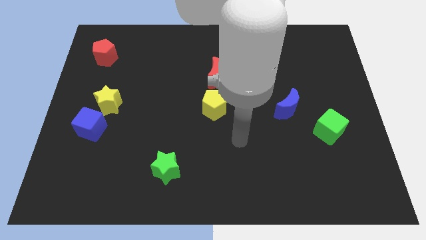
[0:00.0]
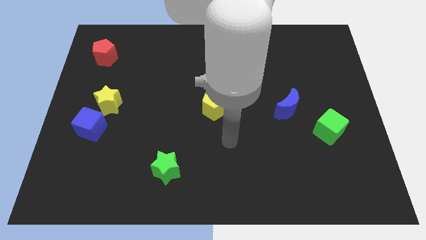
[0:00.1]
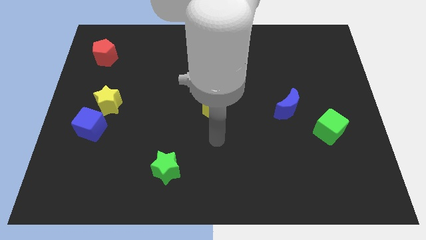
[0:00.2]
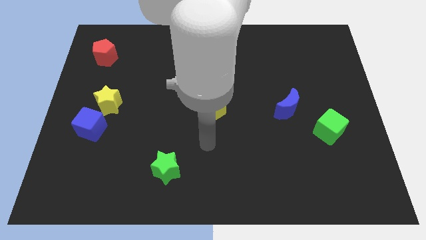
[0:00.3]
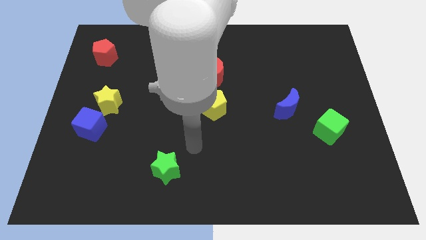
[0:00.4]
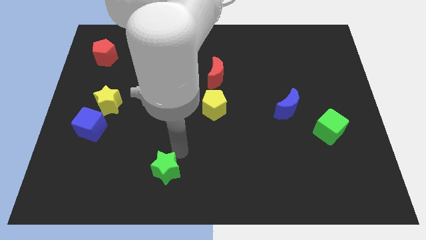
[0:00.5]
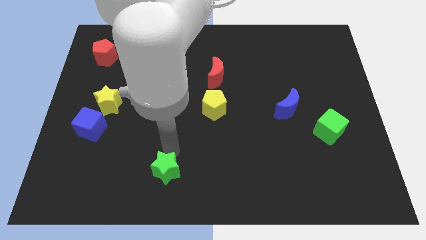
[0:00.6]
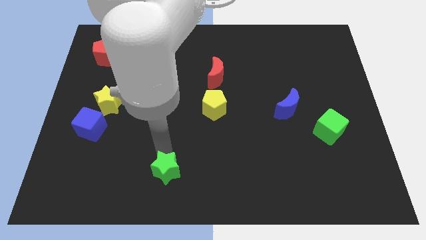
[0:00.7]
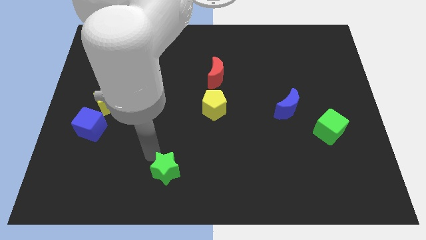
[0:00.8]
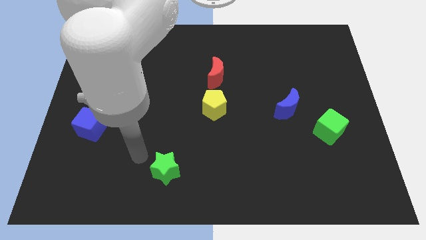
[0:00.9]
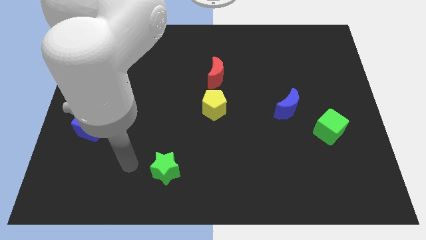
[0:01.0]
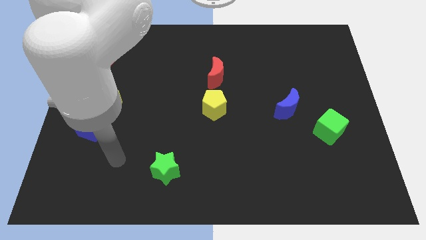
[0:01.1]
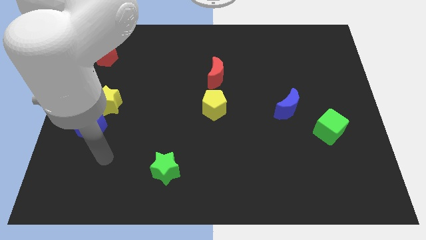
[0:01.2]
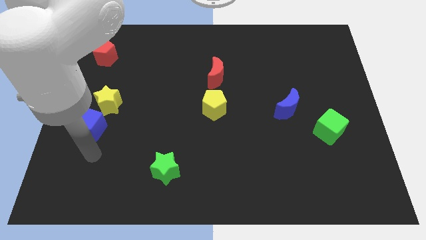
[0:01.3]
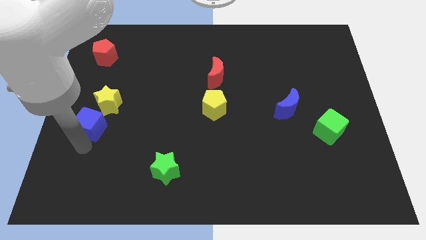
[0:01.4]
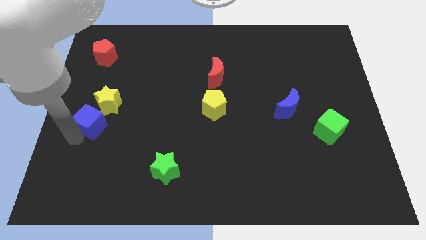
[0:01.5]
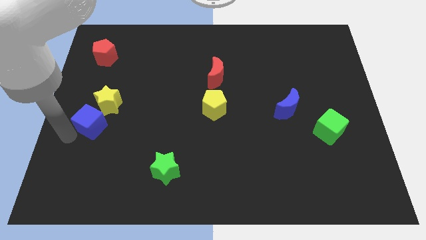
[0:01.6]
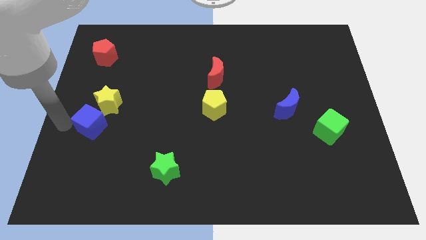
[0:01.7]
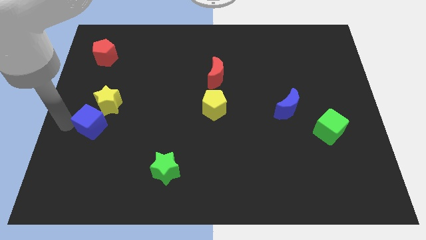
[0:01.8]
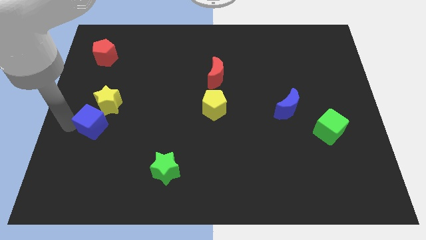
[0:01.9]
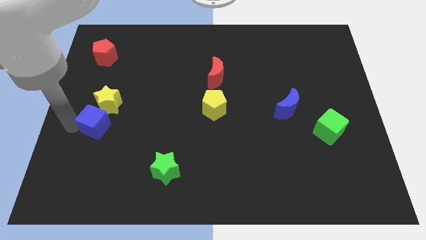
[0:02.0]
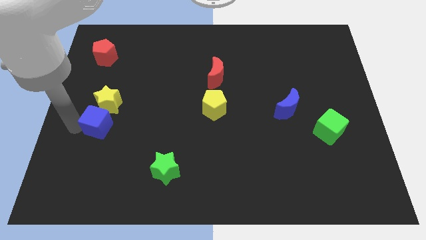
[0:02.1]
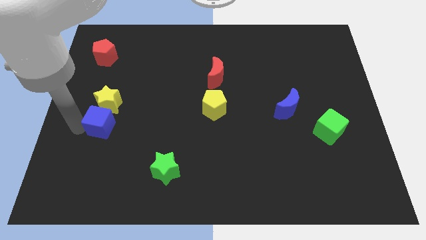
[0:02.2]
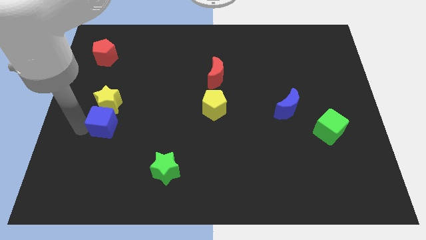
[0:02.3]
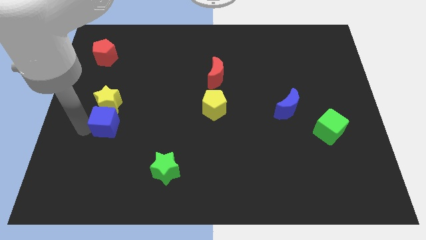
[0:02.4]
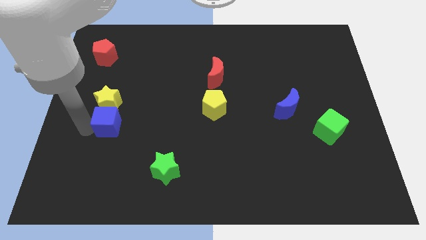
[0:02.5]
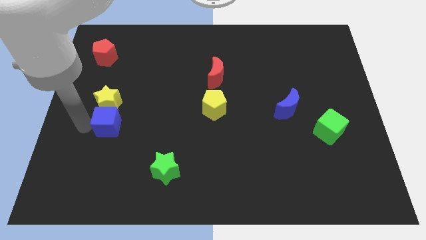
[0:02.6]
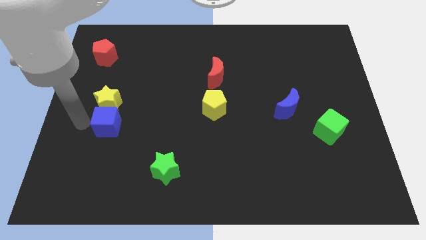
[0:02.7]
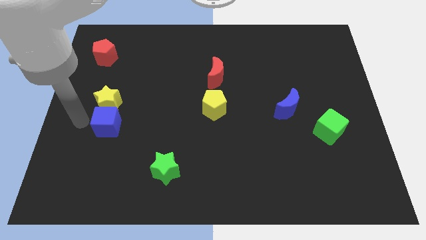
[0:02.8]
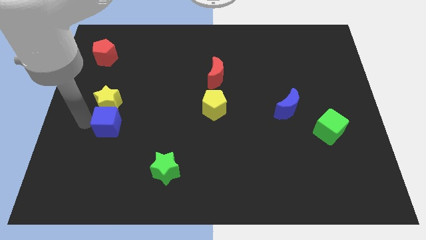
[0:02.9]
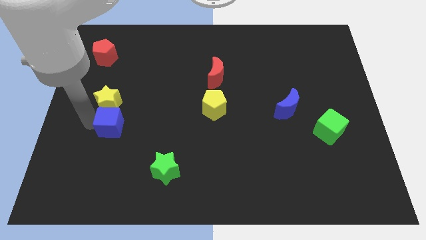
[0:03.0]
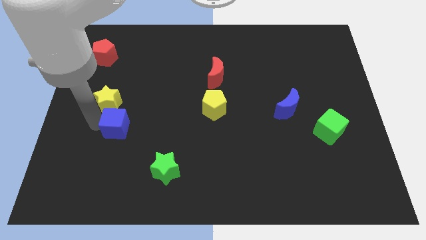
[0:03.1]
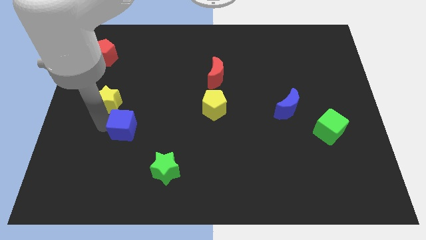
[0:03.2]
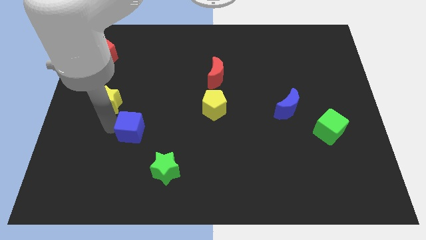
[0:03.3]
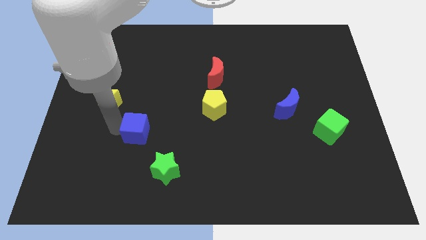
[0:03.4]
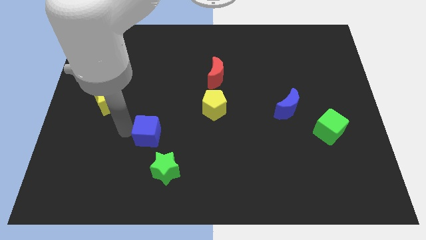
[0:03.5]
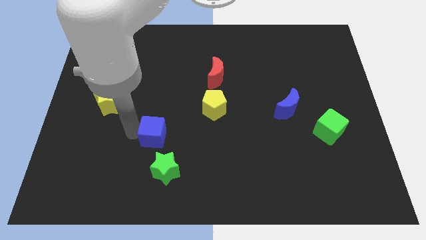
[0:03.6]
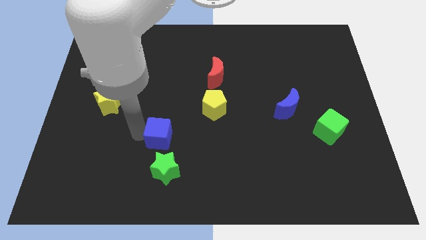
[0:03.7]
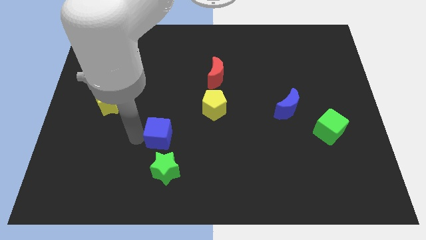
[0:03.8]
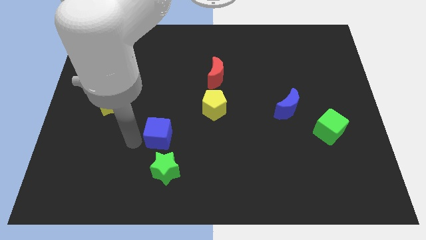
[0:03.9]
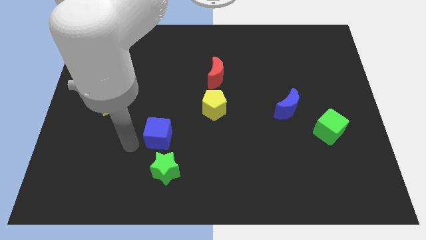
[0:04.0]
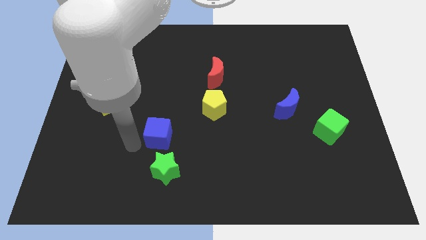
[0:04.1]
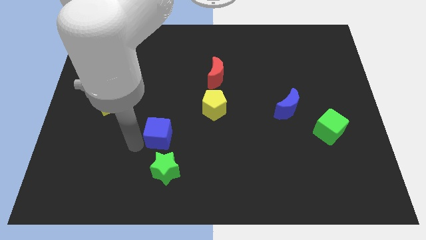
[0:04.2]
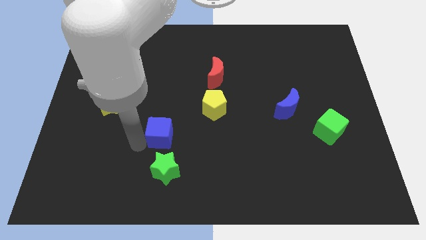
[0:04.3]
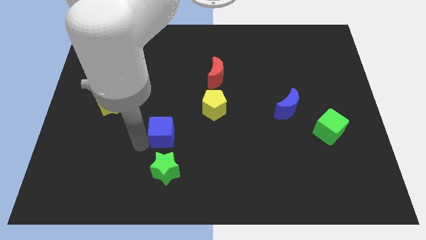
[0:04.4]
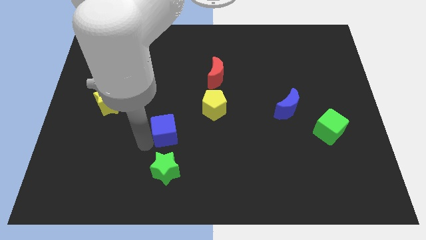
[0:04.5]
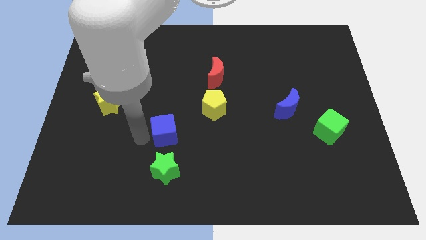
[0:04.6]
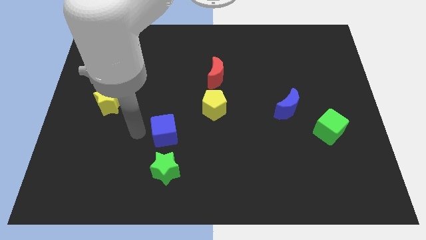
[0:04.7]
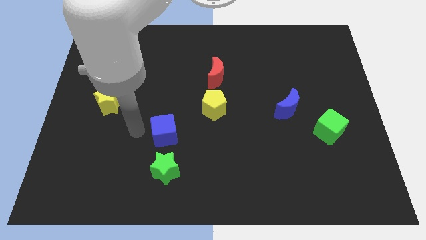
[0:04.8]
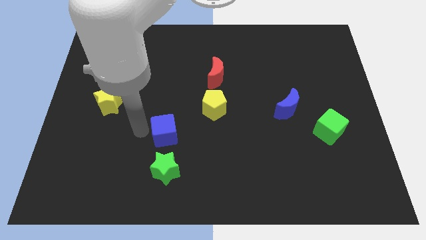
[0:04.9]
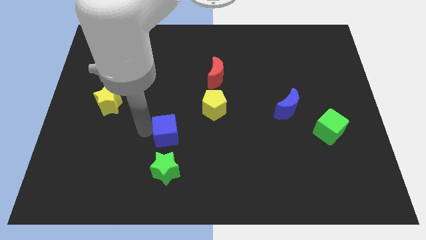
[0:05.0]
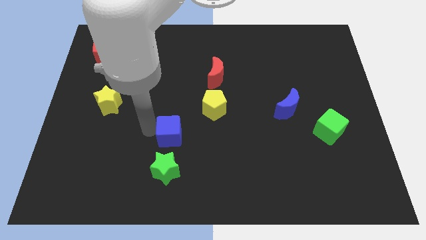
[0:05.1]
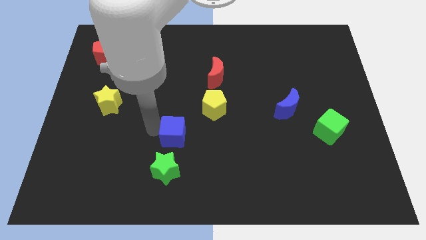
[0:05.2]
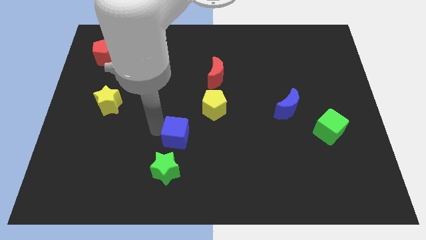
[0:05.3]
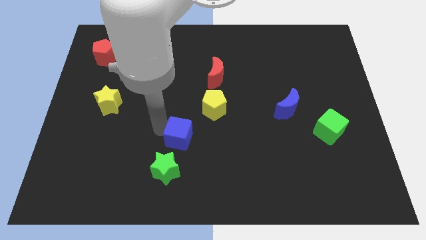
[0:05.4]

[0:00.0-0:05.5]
slide the blue cube right

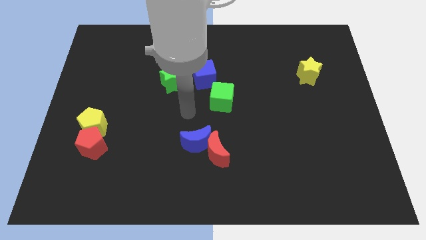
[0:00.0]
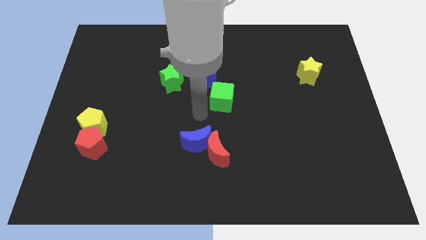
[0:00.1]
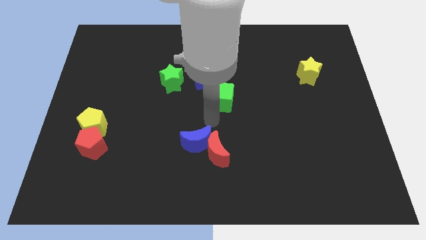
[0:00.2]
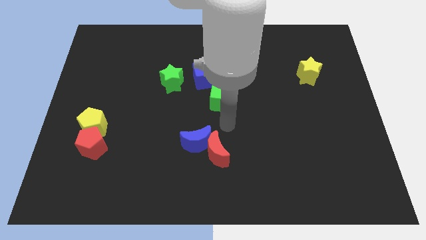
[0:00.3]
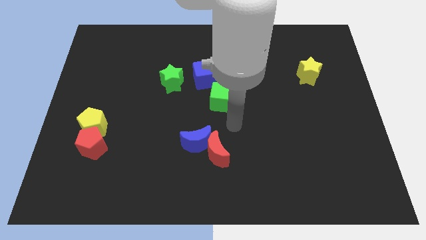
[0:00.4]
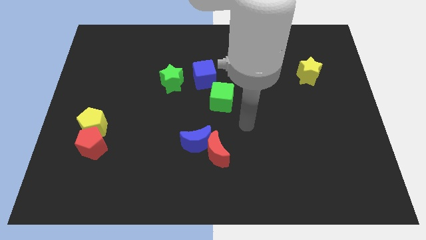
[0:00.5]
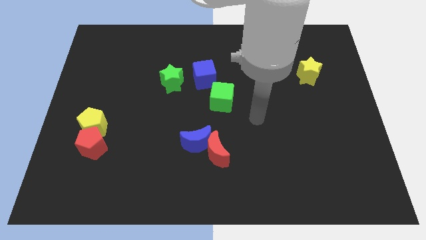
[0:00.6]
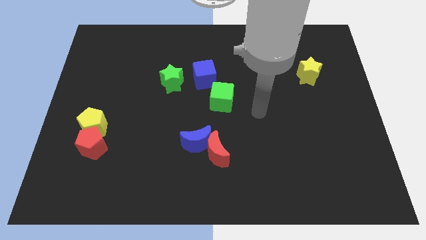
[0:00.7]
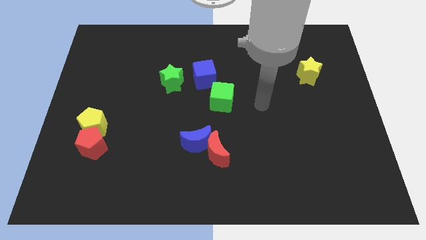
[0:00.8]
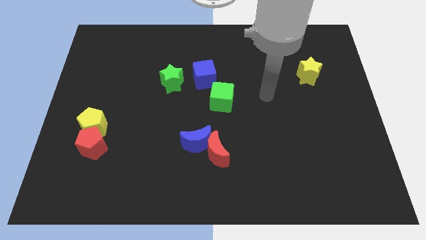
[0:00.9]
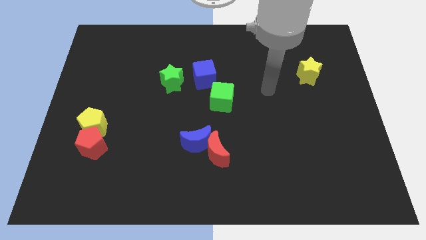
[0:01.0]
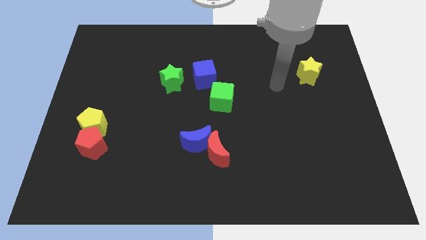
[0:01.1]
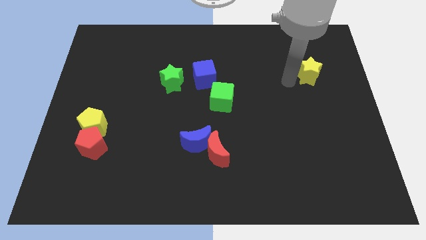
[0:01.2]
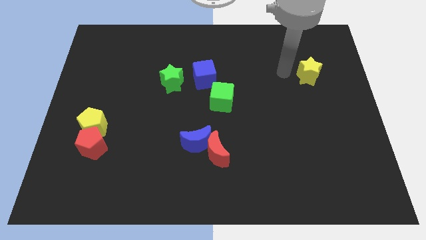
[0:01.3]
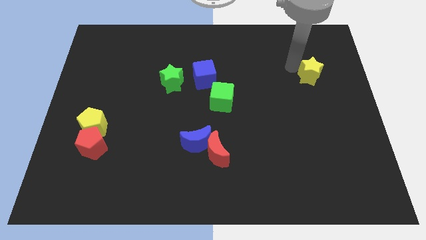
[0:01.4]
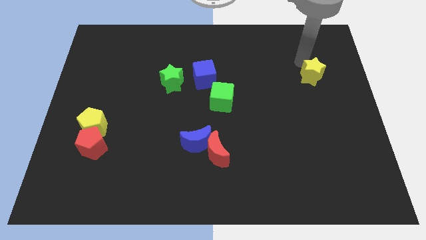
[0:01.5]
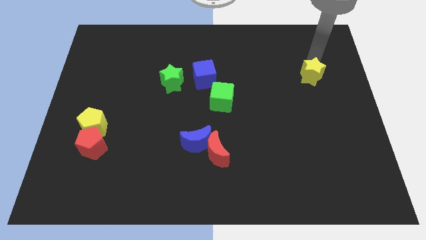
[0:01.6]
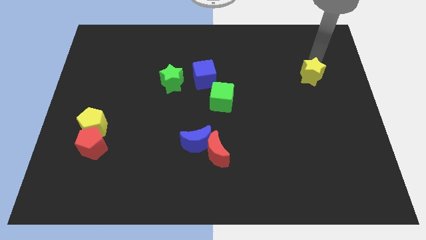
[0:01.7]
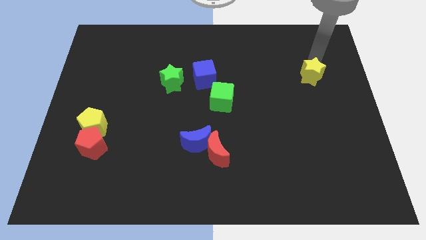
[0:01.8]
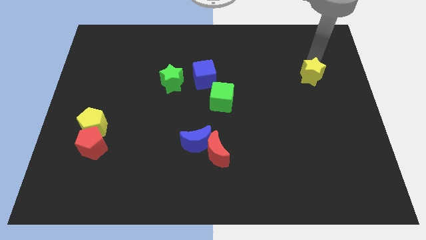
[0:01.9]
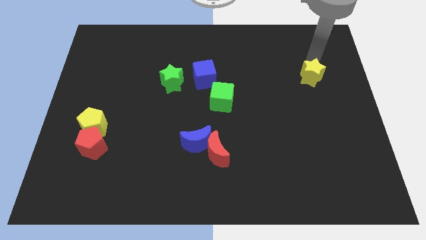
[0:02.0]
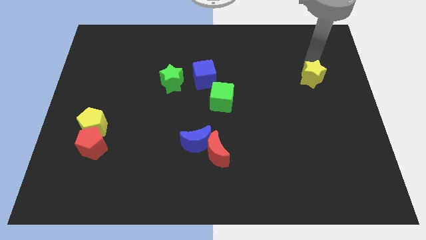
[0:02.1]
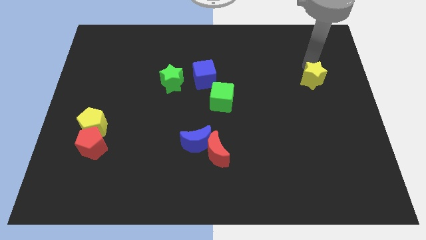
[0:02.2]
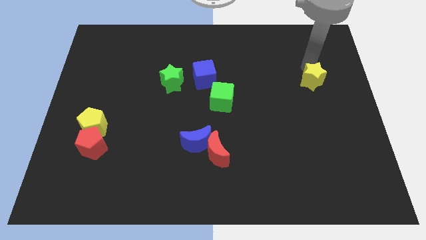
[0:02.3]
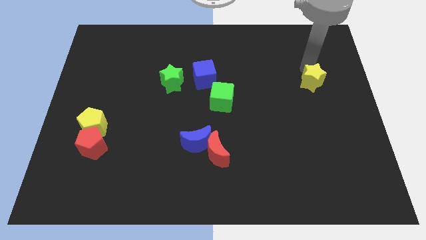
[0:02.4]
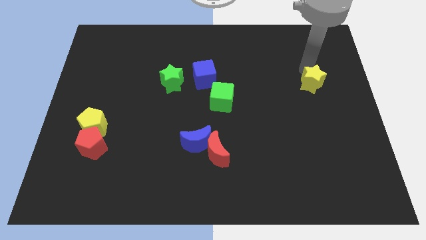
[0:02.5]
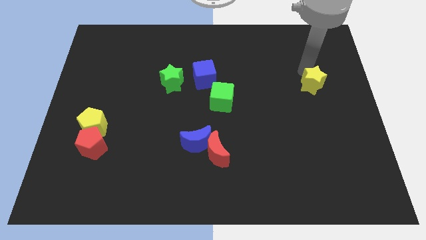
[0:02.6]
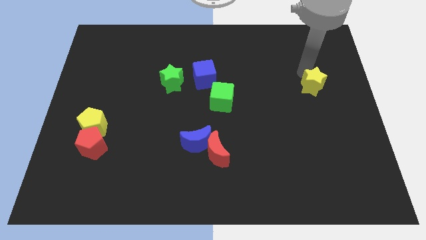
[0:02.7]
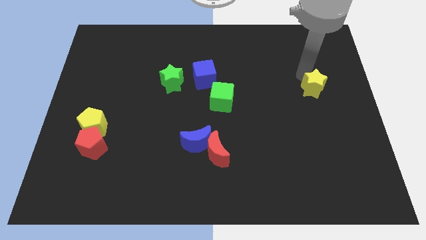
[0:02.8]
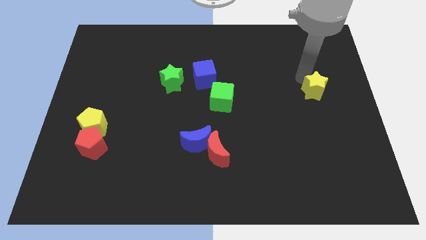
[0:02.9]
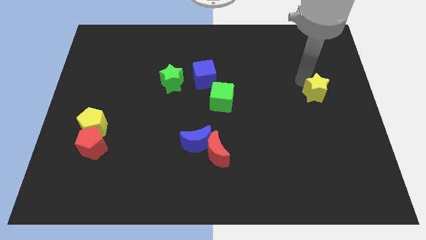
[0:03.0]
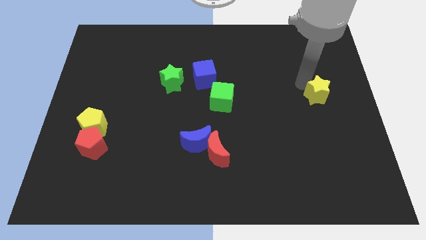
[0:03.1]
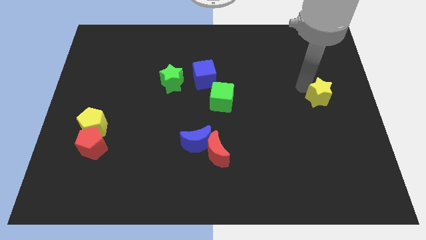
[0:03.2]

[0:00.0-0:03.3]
push the yellow star downwards a little bit
